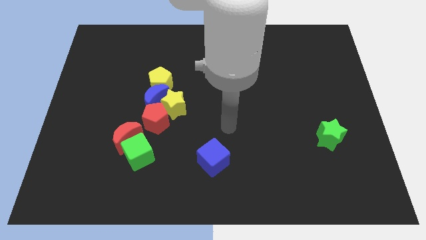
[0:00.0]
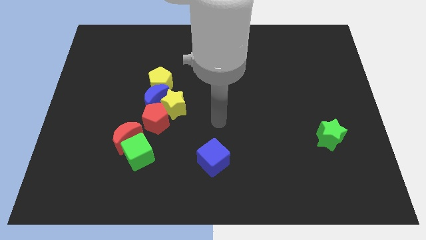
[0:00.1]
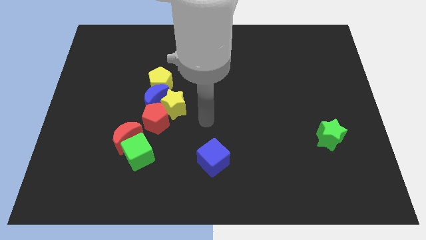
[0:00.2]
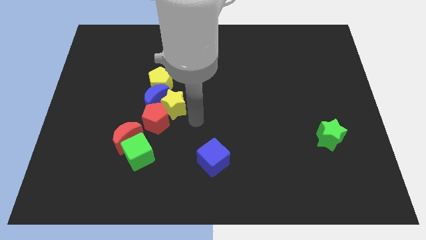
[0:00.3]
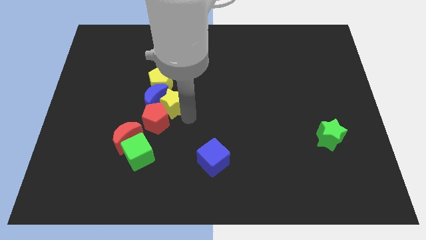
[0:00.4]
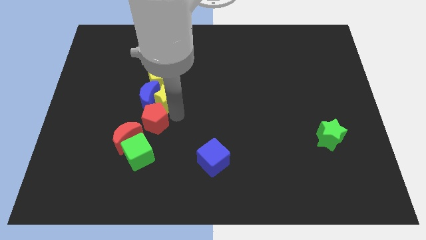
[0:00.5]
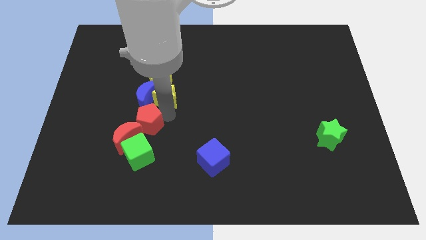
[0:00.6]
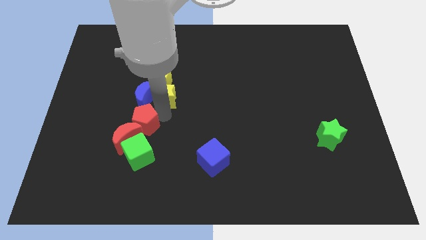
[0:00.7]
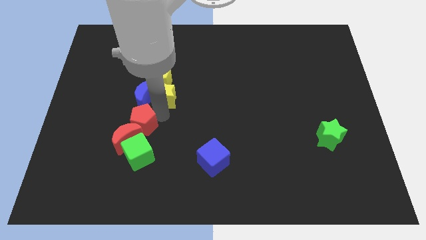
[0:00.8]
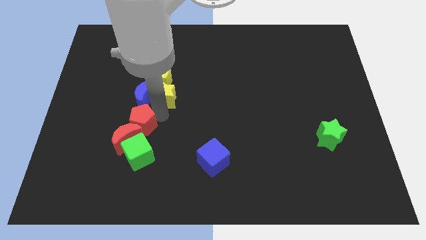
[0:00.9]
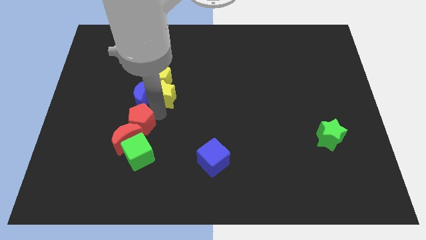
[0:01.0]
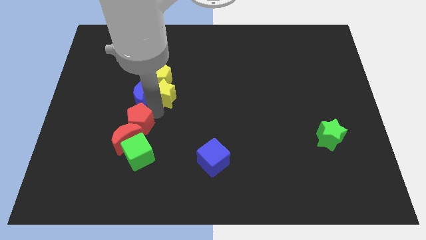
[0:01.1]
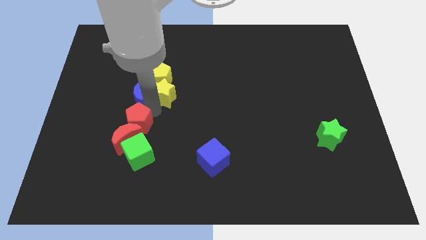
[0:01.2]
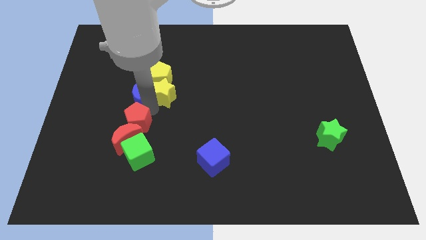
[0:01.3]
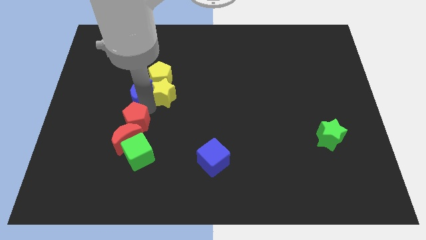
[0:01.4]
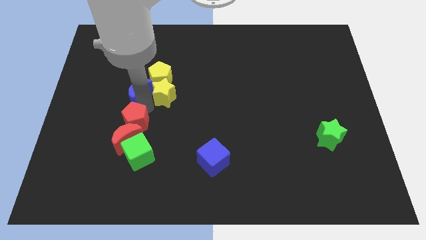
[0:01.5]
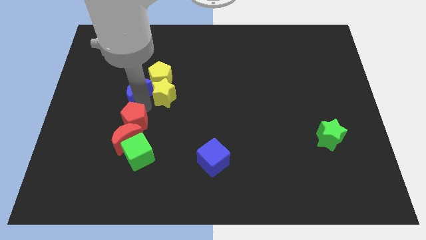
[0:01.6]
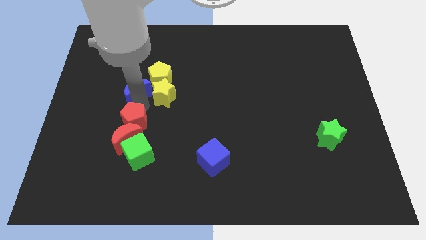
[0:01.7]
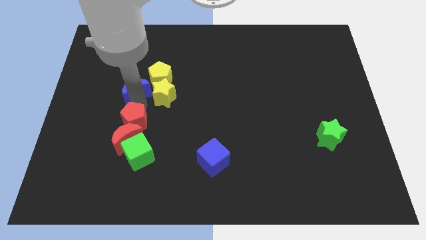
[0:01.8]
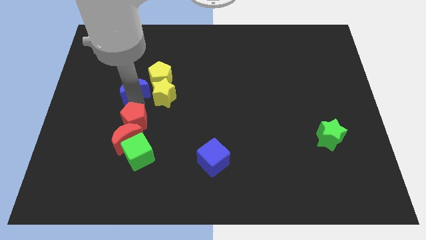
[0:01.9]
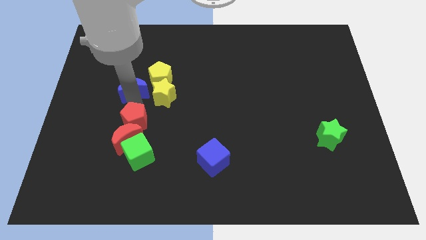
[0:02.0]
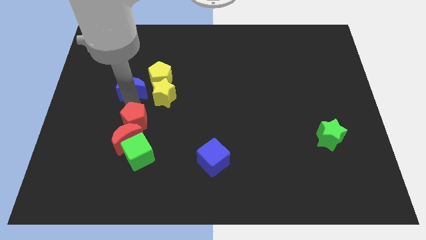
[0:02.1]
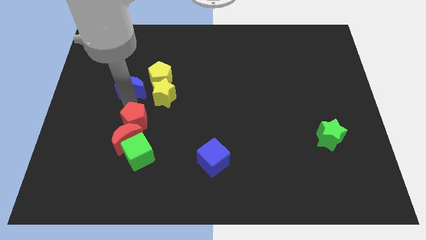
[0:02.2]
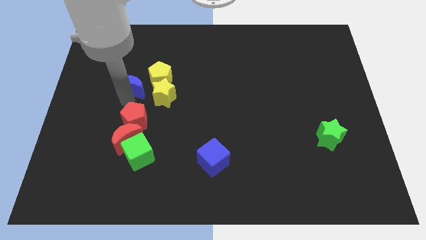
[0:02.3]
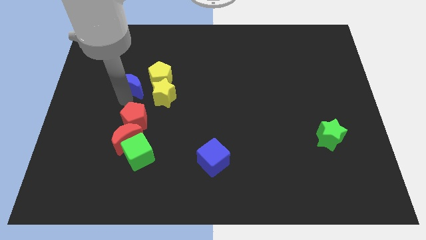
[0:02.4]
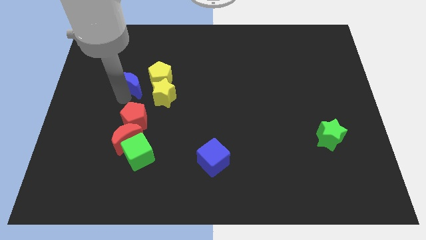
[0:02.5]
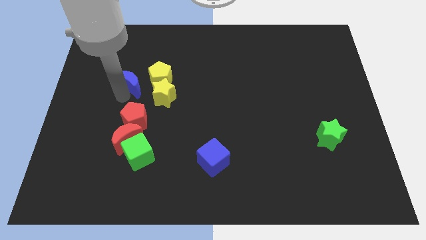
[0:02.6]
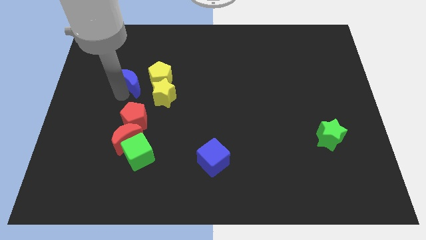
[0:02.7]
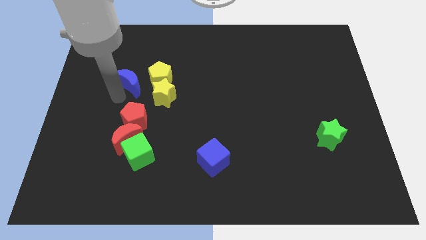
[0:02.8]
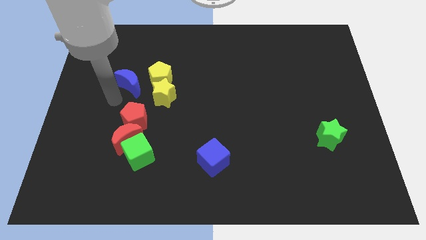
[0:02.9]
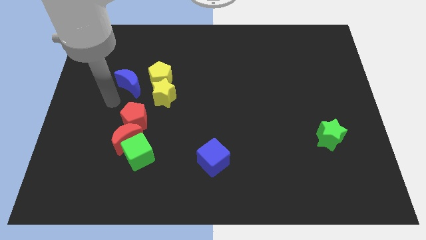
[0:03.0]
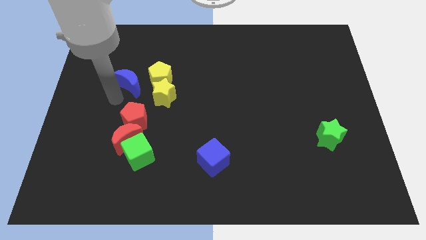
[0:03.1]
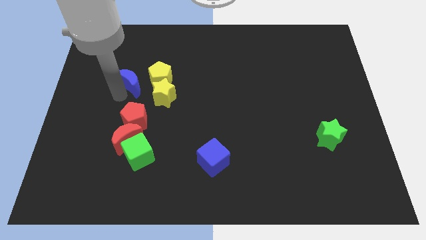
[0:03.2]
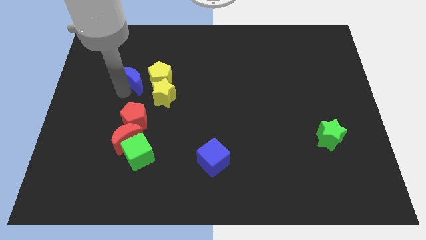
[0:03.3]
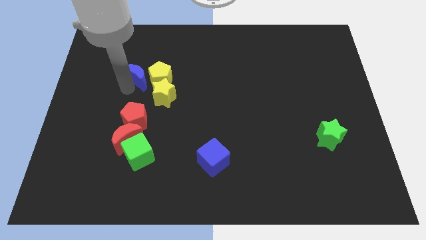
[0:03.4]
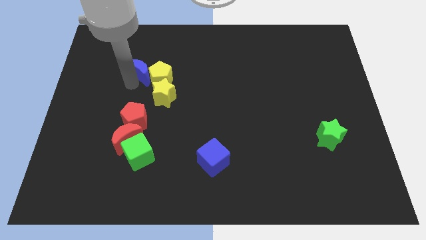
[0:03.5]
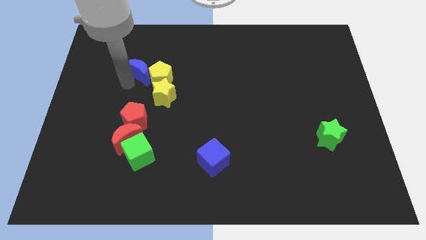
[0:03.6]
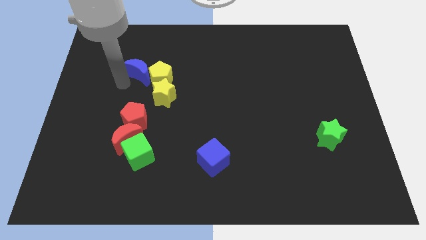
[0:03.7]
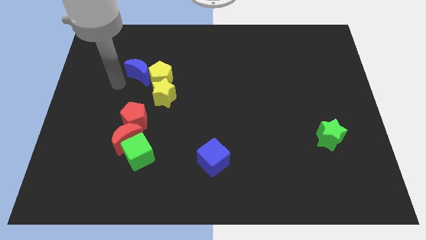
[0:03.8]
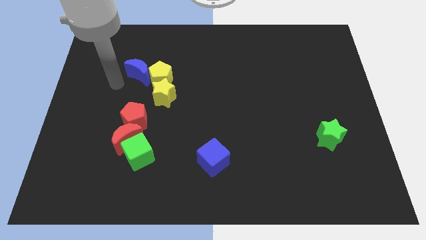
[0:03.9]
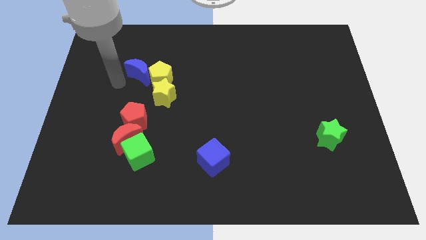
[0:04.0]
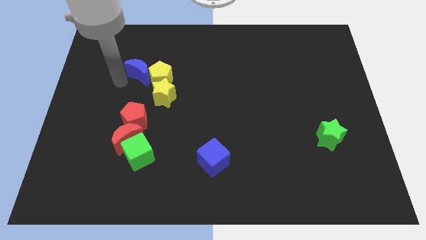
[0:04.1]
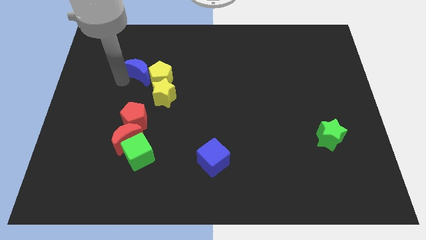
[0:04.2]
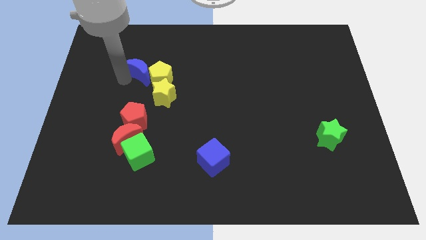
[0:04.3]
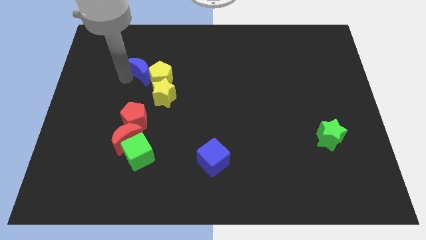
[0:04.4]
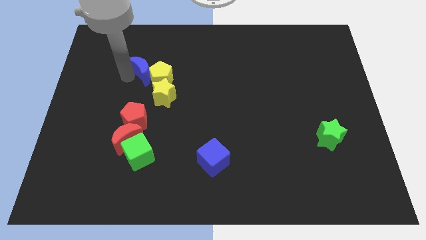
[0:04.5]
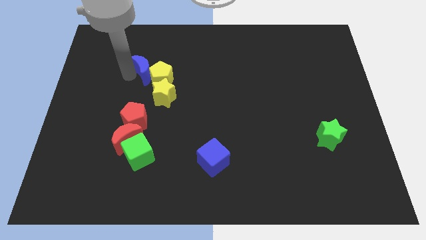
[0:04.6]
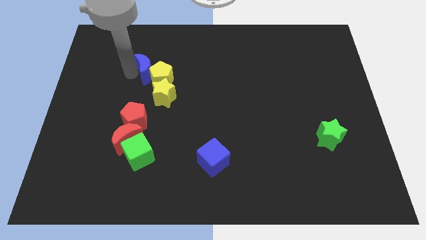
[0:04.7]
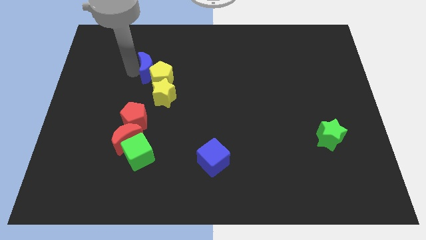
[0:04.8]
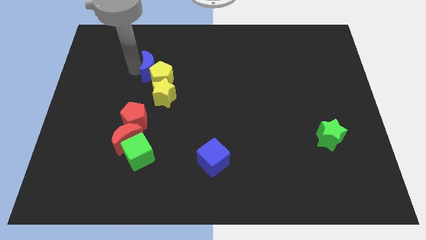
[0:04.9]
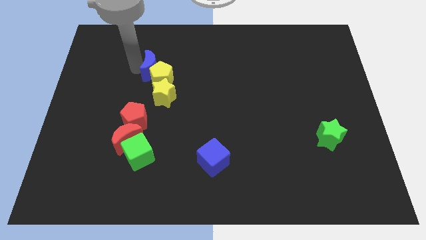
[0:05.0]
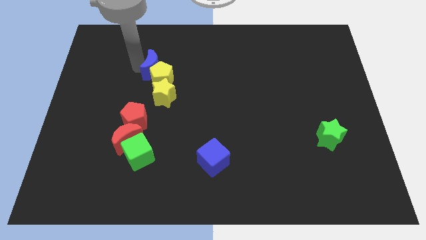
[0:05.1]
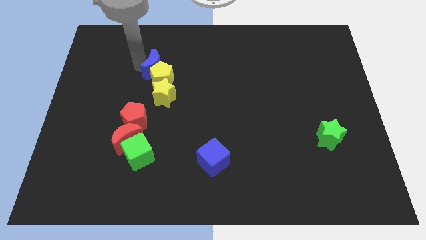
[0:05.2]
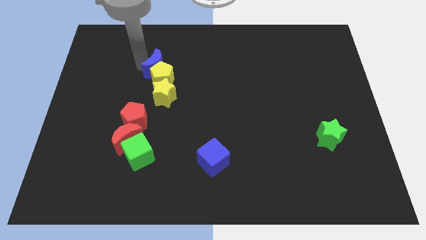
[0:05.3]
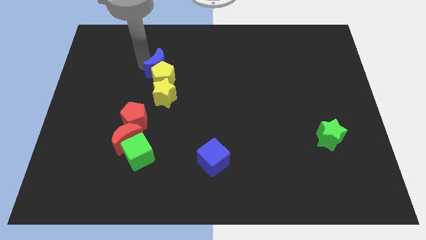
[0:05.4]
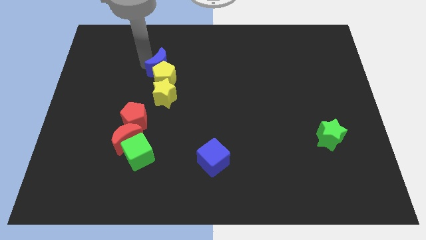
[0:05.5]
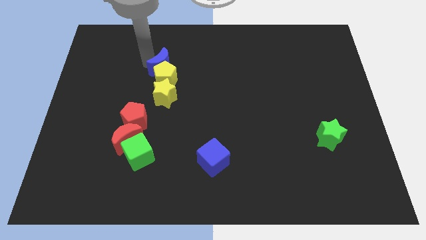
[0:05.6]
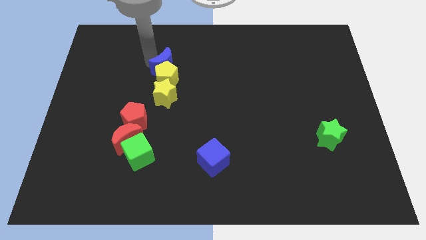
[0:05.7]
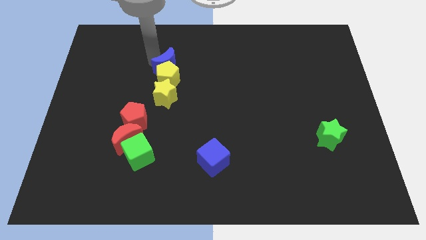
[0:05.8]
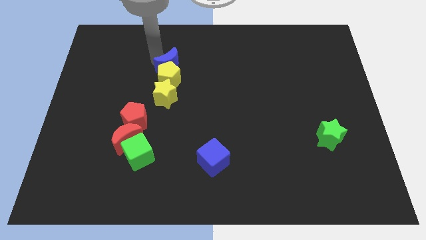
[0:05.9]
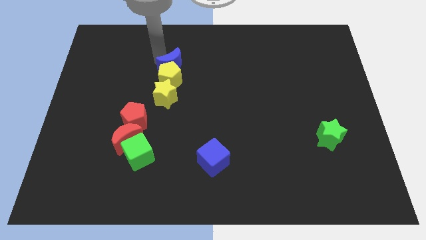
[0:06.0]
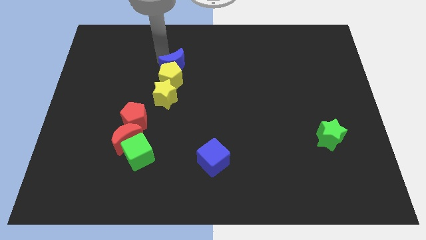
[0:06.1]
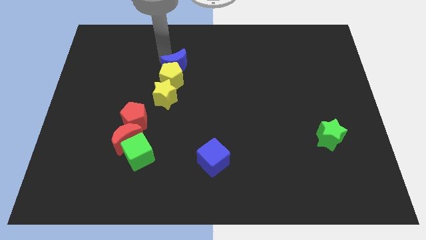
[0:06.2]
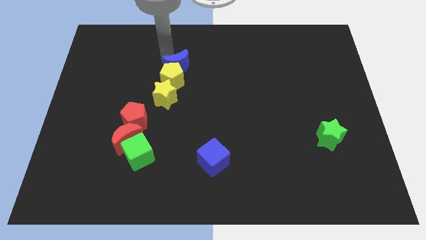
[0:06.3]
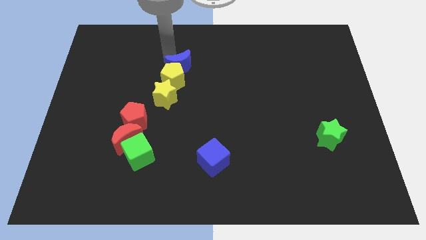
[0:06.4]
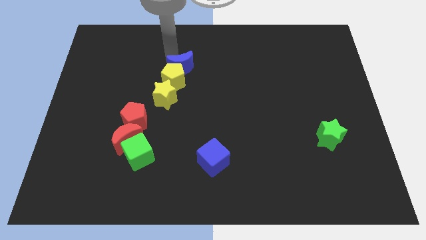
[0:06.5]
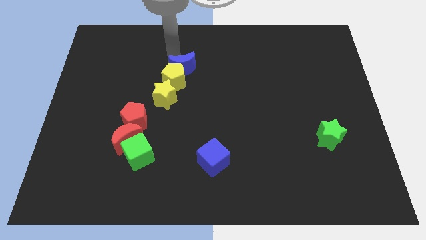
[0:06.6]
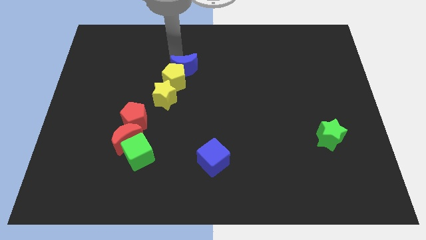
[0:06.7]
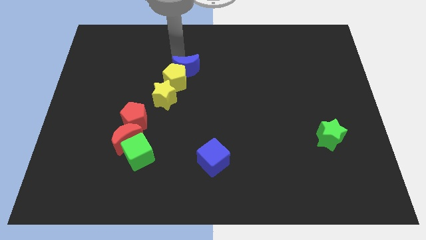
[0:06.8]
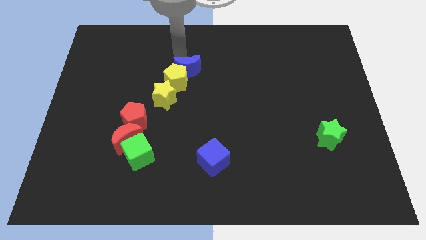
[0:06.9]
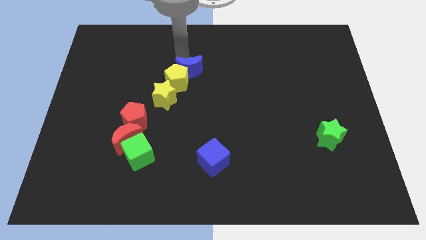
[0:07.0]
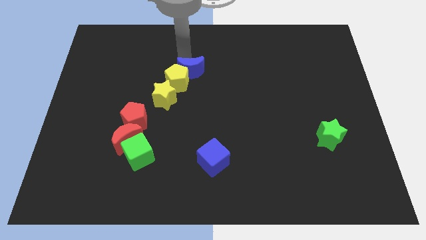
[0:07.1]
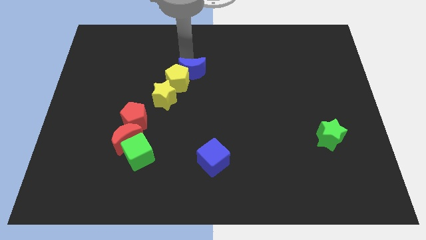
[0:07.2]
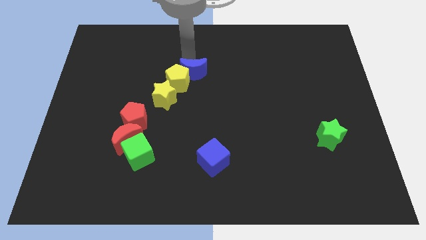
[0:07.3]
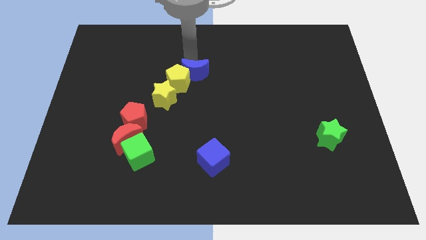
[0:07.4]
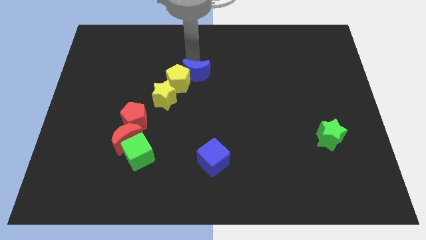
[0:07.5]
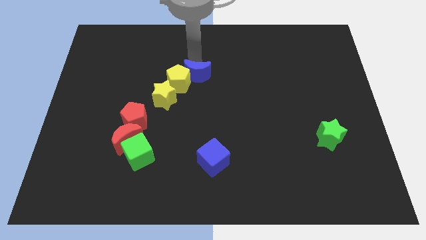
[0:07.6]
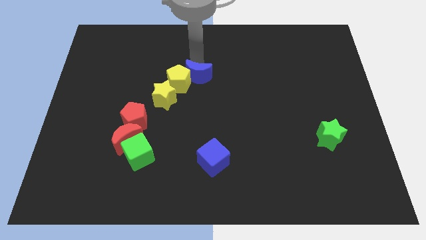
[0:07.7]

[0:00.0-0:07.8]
move the blue moon slightly right

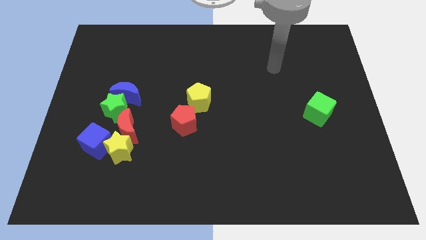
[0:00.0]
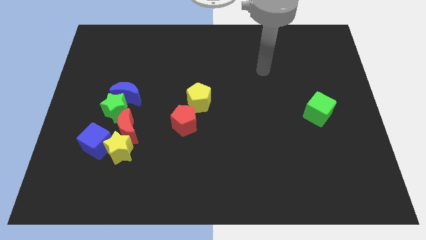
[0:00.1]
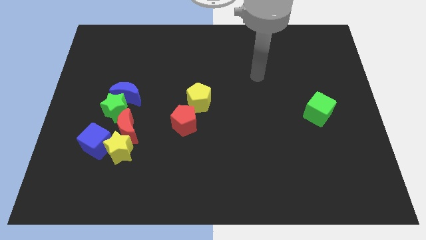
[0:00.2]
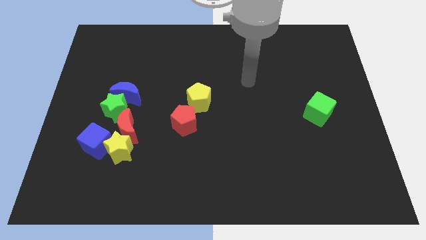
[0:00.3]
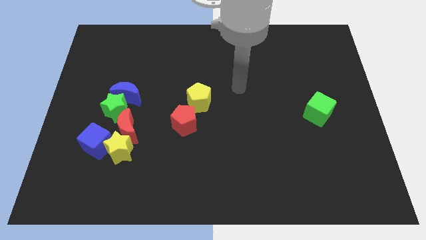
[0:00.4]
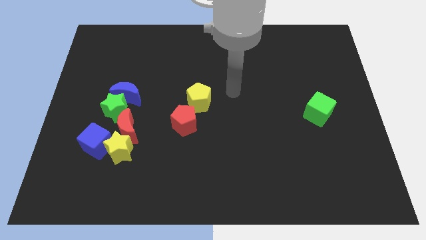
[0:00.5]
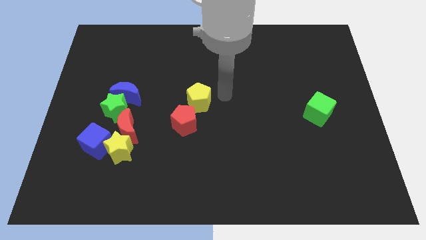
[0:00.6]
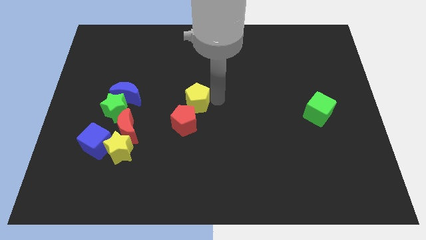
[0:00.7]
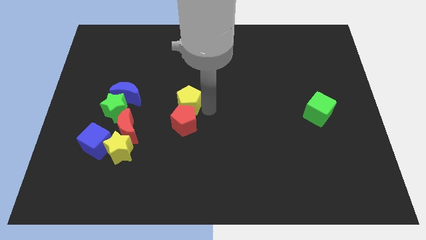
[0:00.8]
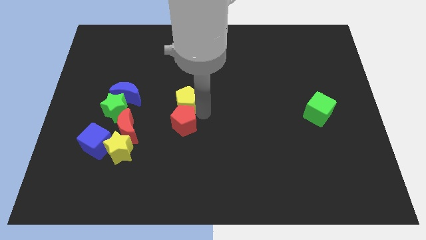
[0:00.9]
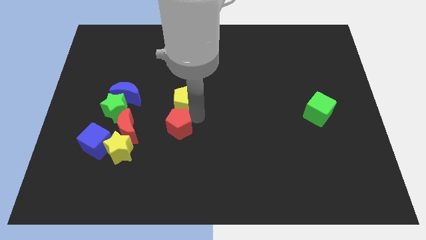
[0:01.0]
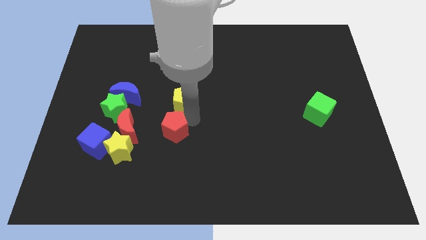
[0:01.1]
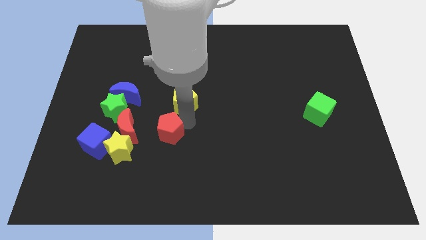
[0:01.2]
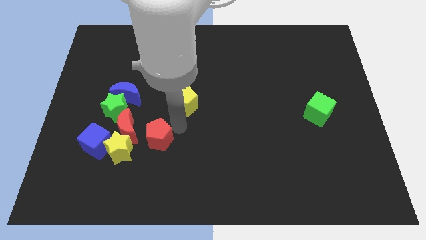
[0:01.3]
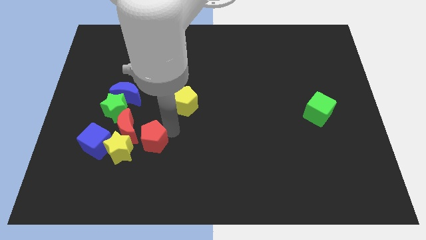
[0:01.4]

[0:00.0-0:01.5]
slide the red pentagon a bit down and to the left diagonally
